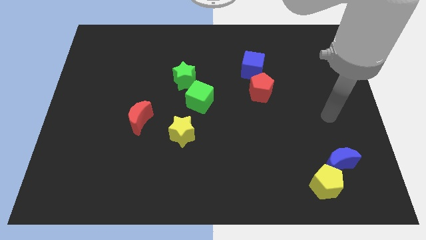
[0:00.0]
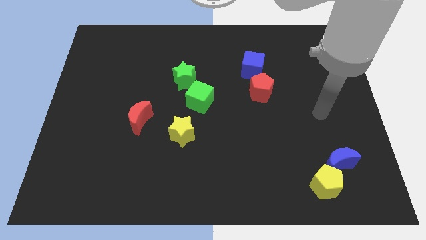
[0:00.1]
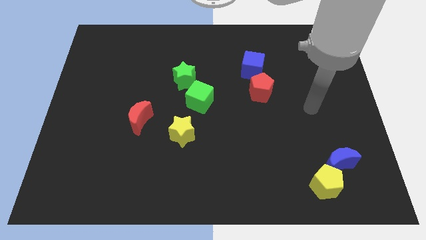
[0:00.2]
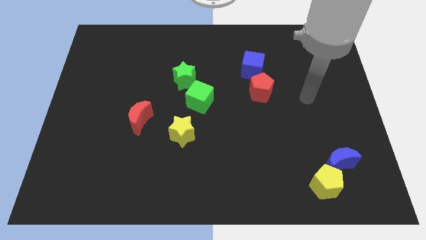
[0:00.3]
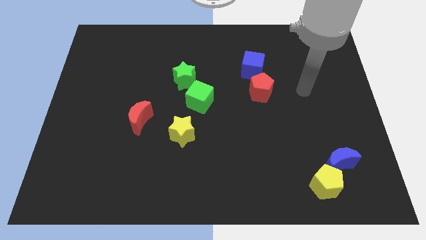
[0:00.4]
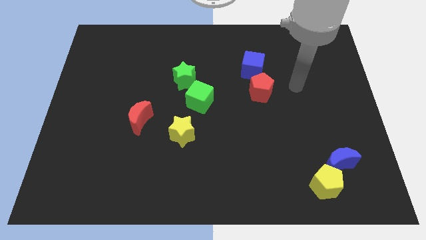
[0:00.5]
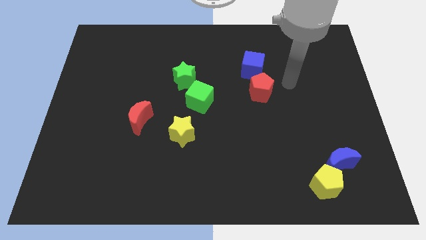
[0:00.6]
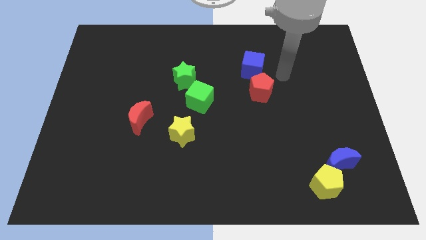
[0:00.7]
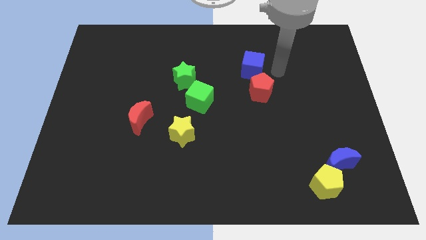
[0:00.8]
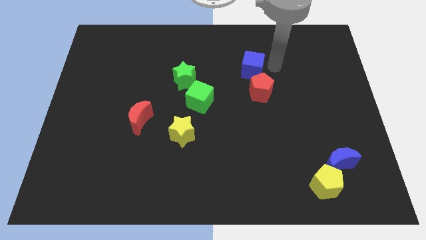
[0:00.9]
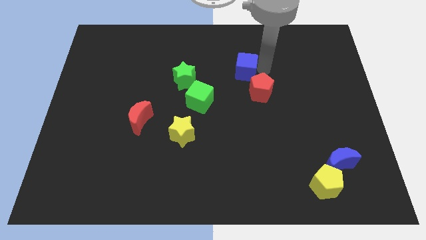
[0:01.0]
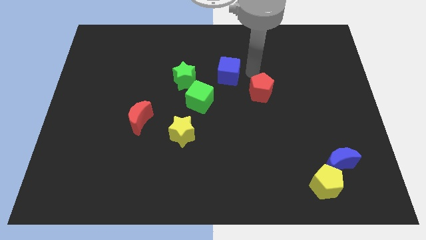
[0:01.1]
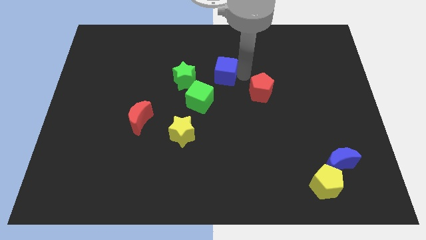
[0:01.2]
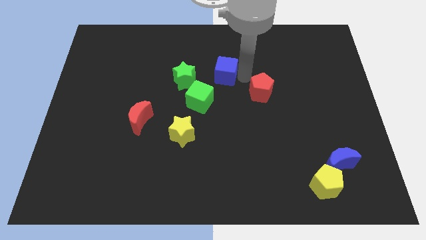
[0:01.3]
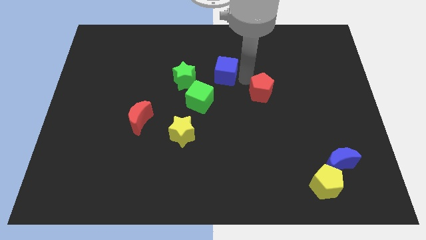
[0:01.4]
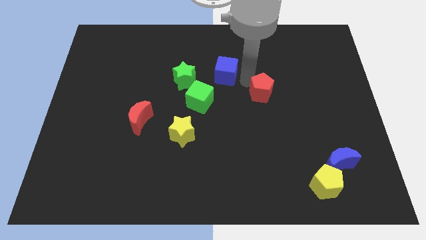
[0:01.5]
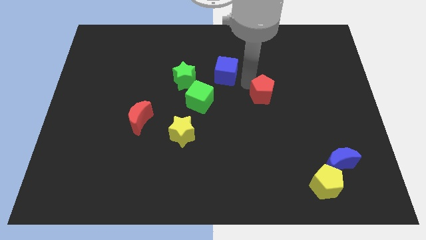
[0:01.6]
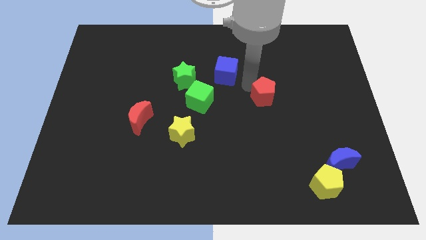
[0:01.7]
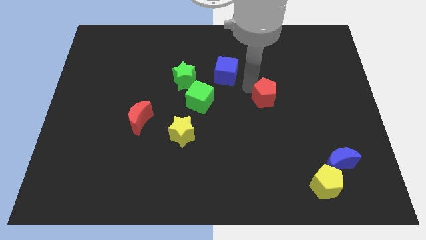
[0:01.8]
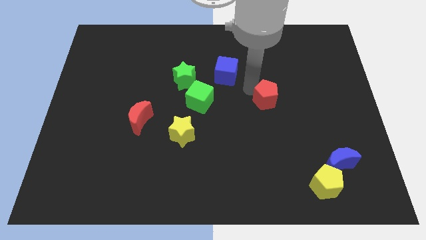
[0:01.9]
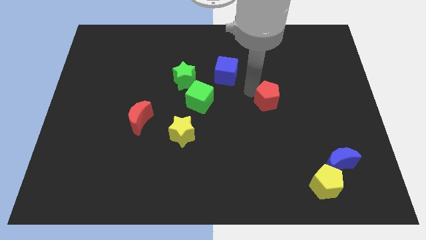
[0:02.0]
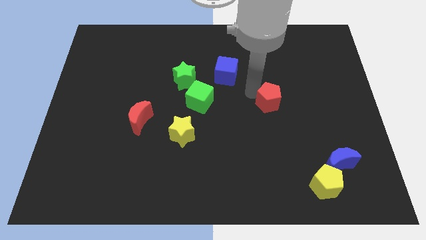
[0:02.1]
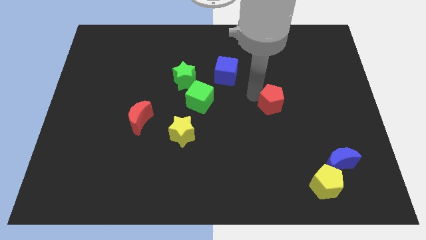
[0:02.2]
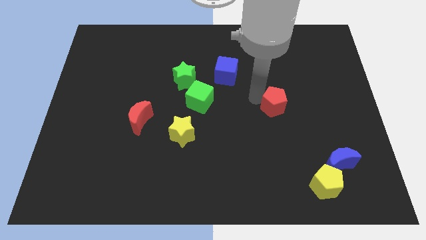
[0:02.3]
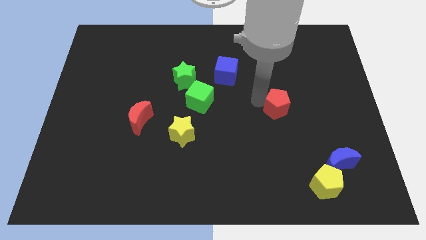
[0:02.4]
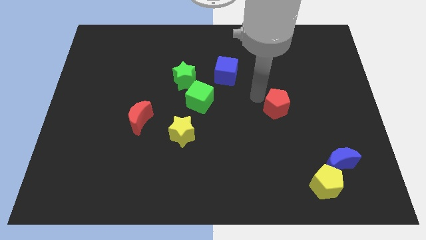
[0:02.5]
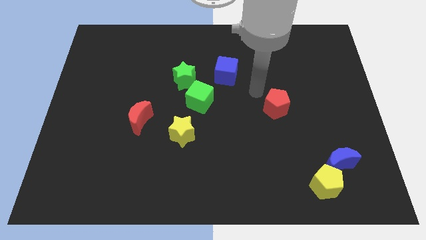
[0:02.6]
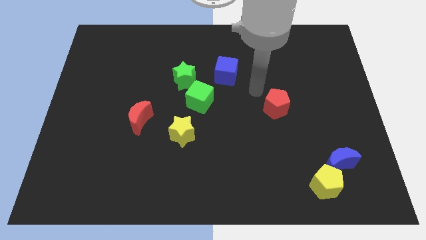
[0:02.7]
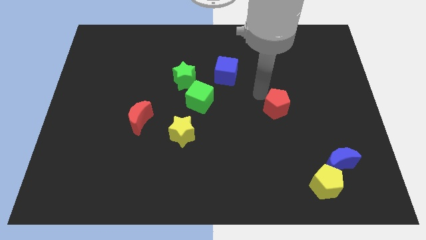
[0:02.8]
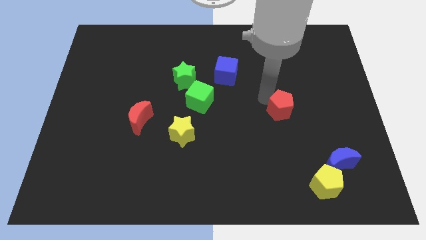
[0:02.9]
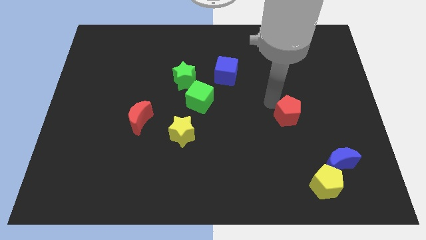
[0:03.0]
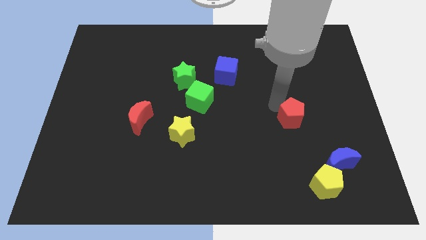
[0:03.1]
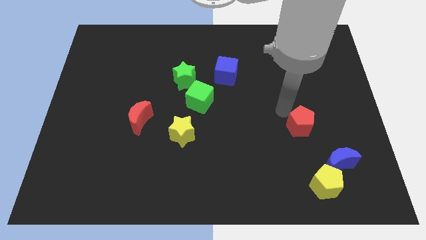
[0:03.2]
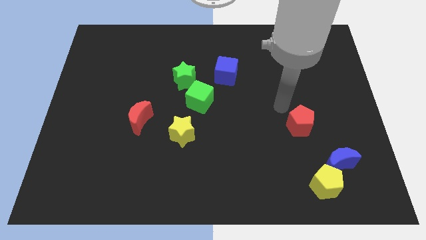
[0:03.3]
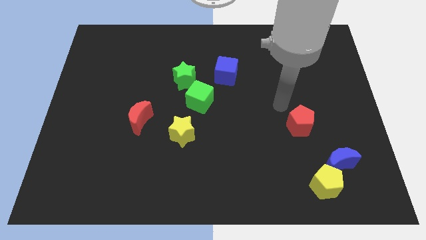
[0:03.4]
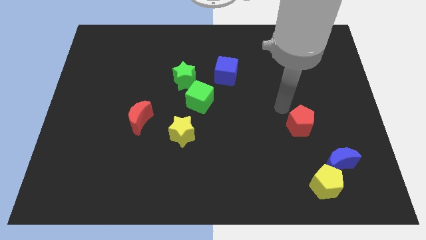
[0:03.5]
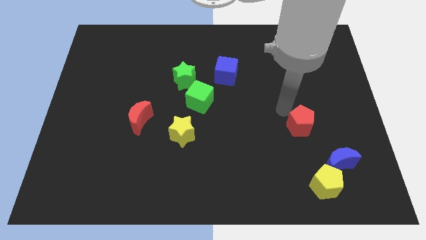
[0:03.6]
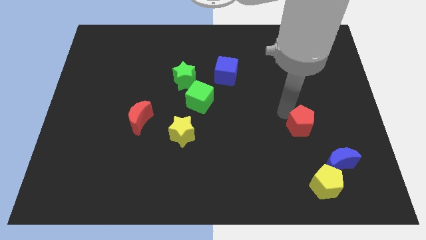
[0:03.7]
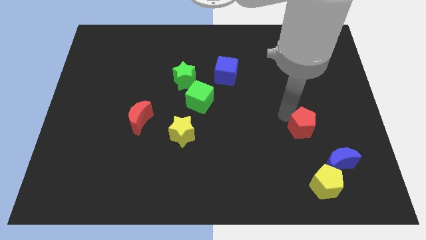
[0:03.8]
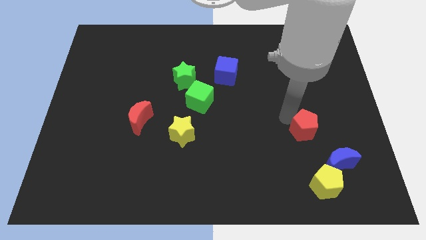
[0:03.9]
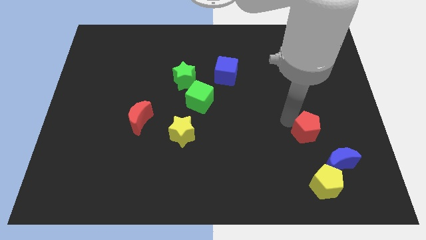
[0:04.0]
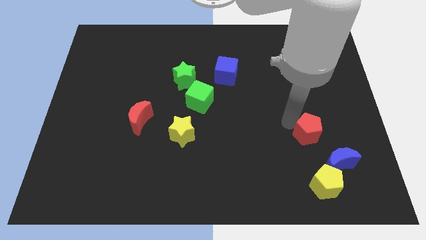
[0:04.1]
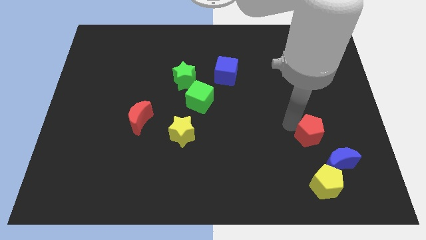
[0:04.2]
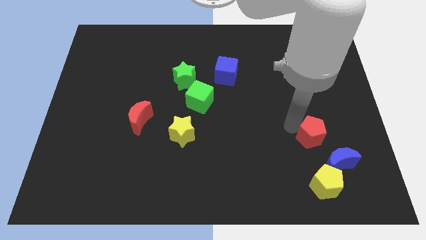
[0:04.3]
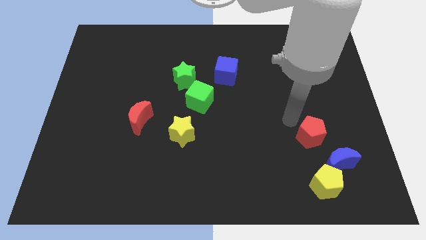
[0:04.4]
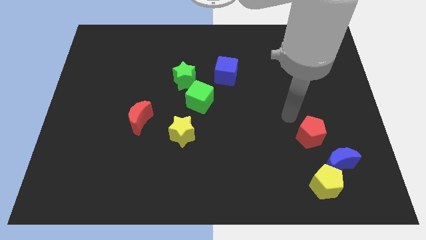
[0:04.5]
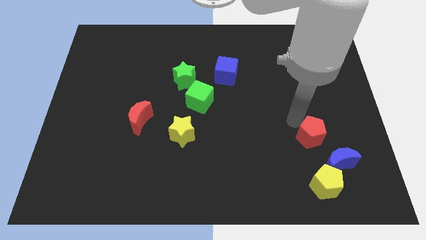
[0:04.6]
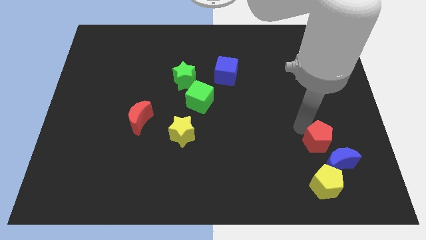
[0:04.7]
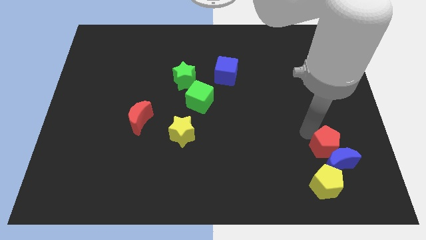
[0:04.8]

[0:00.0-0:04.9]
push the red pentagon next to the blue moon

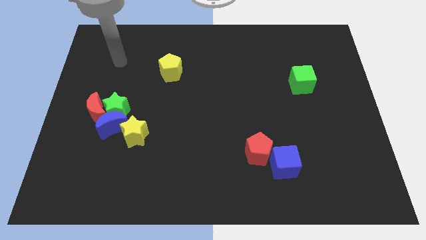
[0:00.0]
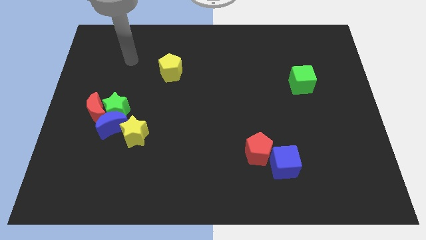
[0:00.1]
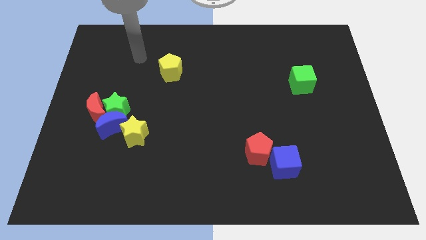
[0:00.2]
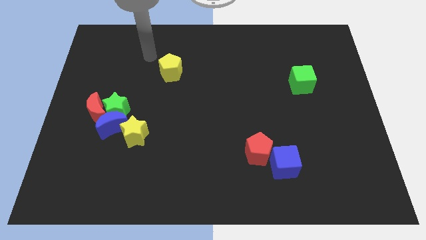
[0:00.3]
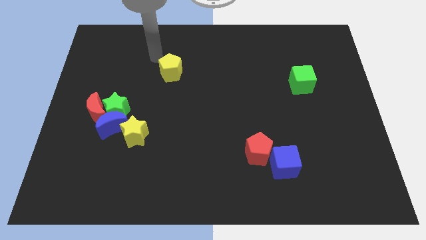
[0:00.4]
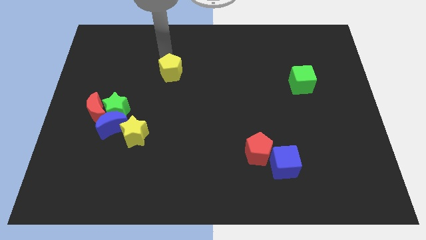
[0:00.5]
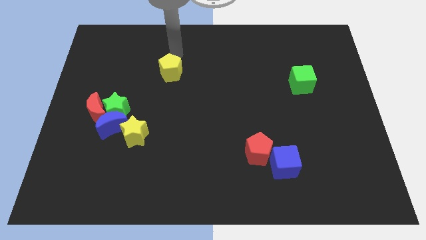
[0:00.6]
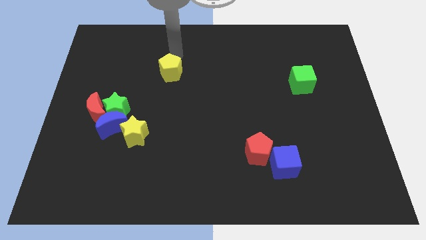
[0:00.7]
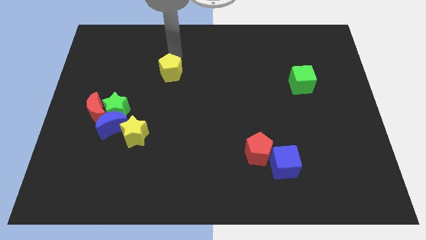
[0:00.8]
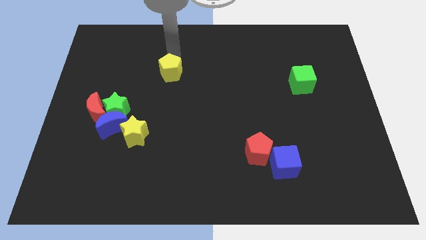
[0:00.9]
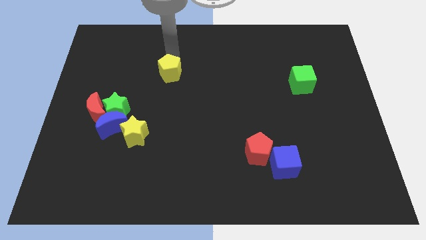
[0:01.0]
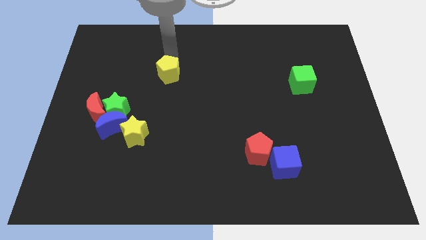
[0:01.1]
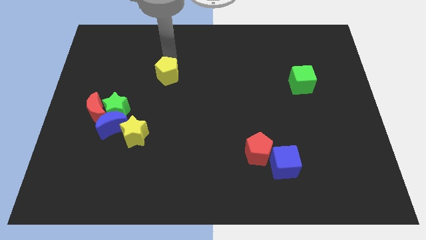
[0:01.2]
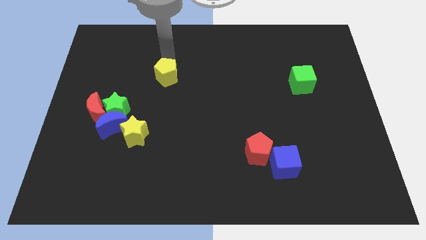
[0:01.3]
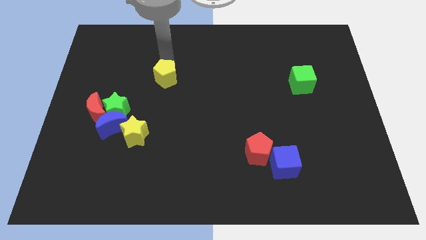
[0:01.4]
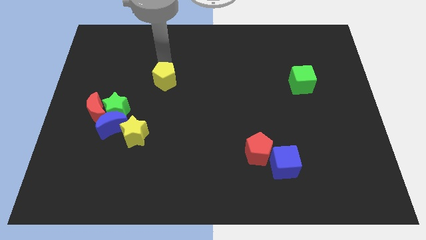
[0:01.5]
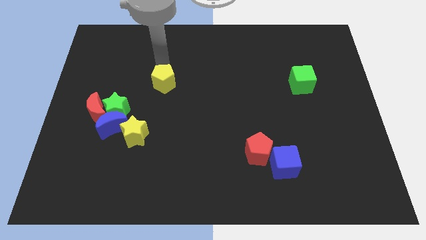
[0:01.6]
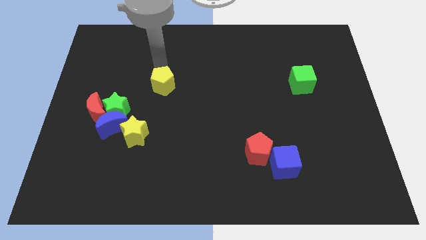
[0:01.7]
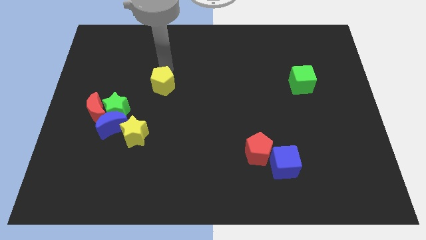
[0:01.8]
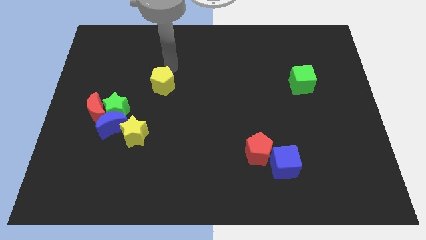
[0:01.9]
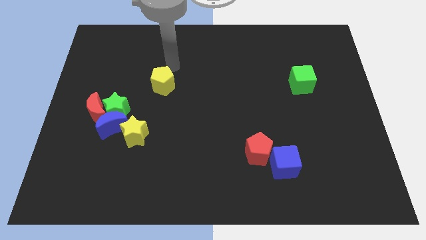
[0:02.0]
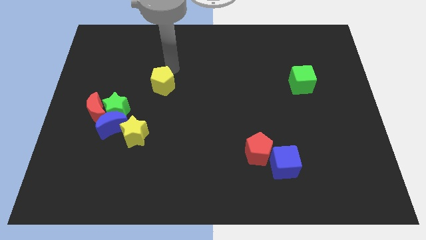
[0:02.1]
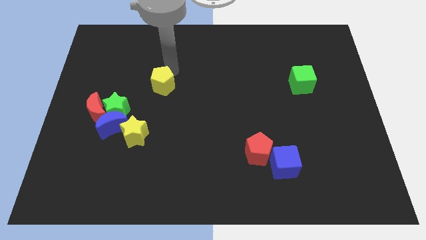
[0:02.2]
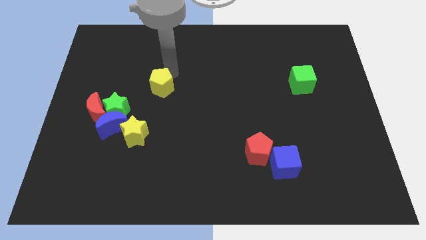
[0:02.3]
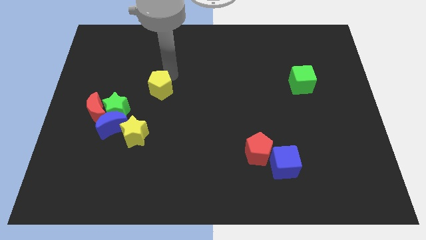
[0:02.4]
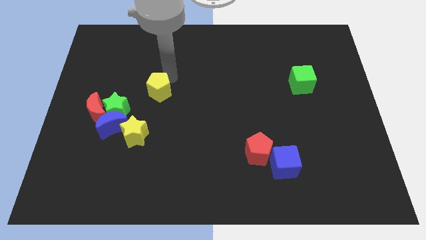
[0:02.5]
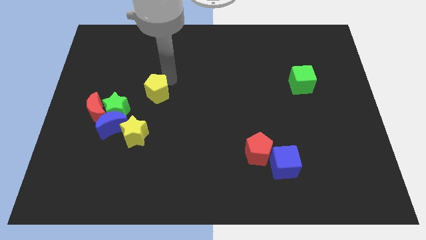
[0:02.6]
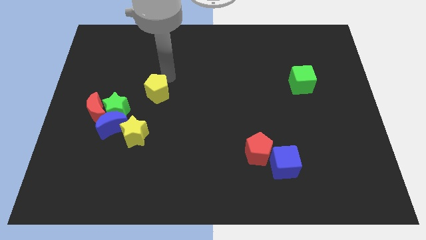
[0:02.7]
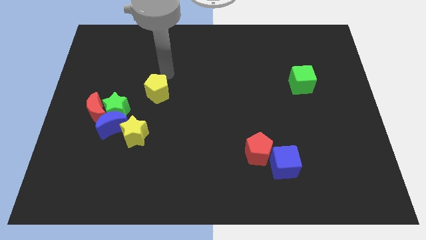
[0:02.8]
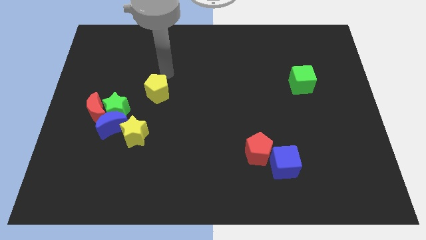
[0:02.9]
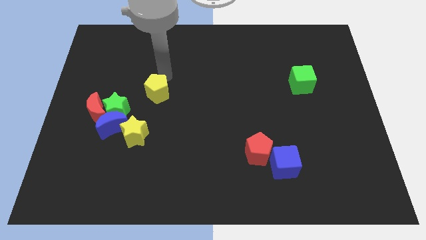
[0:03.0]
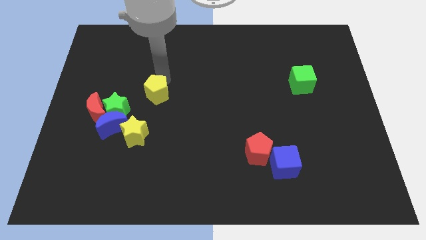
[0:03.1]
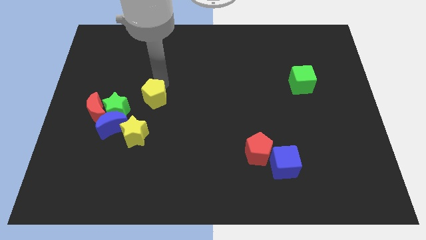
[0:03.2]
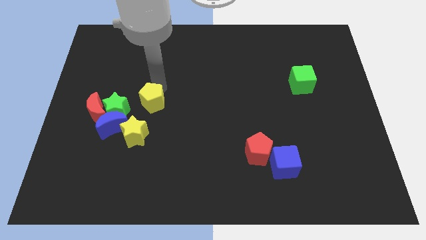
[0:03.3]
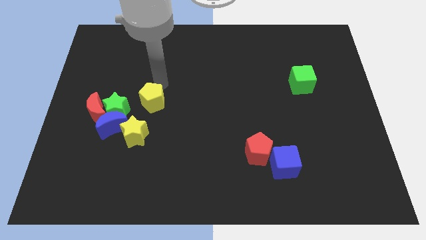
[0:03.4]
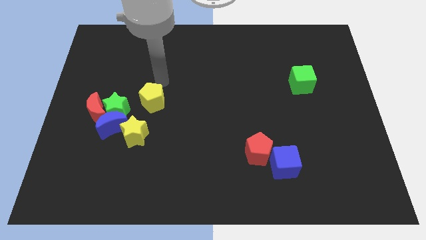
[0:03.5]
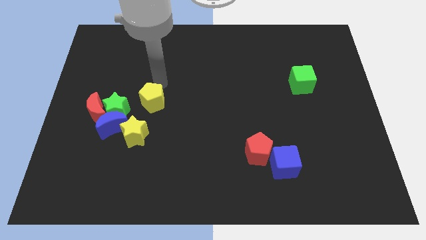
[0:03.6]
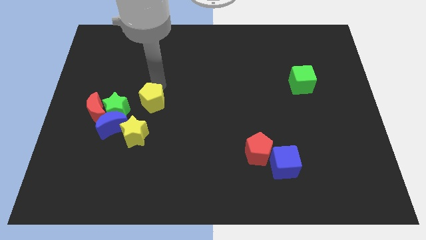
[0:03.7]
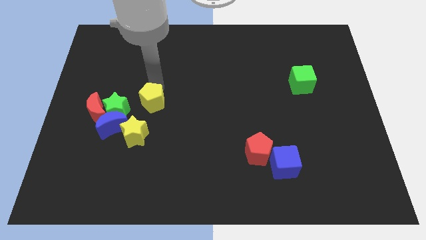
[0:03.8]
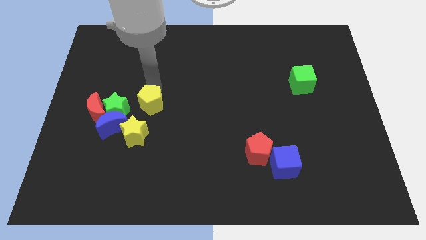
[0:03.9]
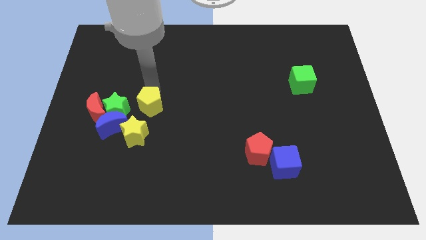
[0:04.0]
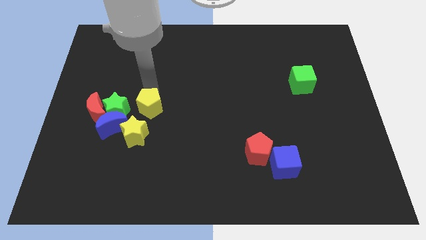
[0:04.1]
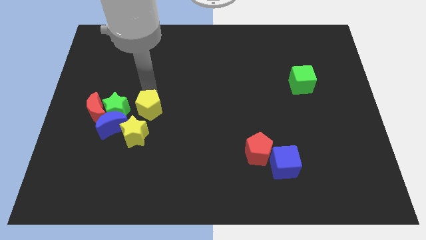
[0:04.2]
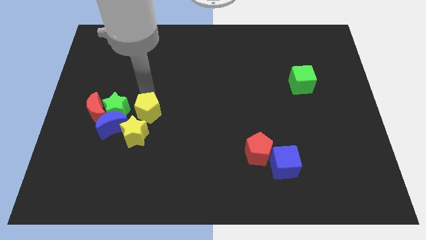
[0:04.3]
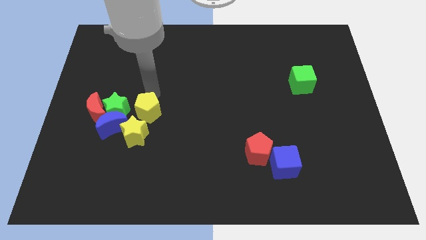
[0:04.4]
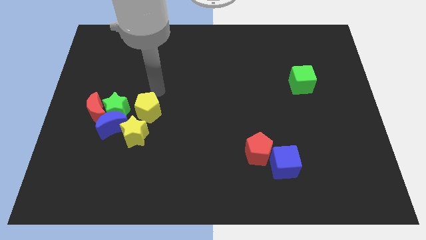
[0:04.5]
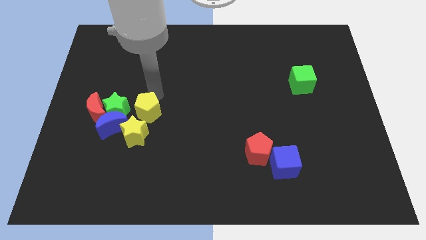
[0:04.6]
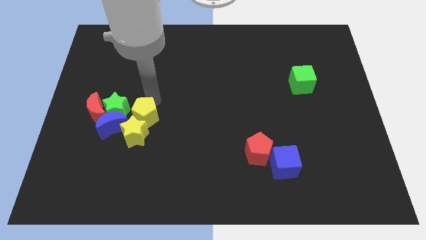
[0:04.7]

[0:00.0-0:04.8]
put the yellow pentagon to the yellow star
